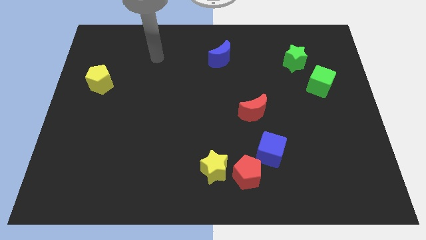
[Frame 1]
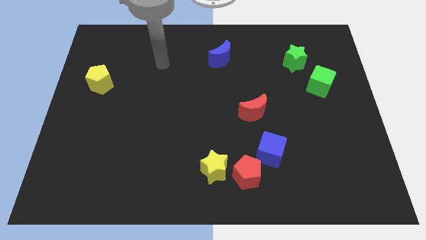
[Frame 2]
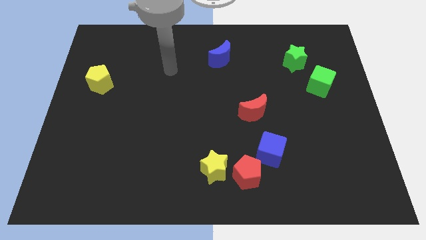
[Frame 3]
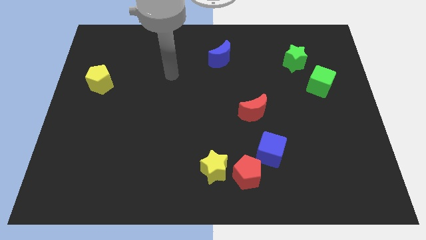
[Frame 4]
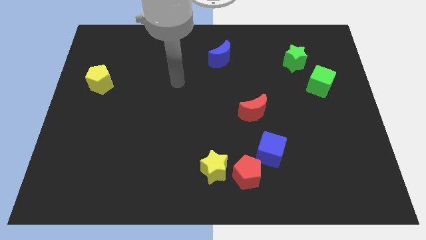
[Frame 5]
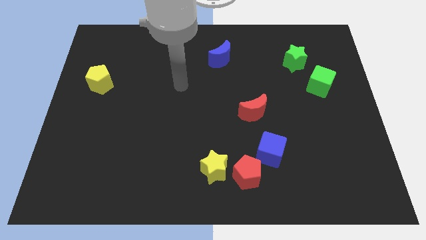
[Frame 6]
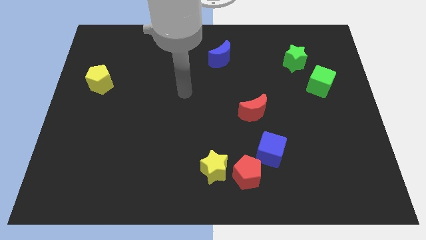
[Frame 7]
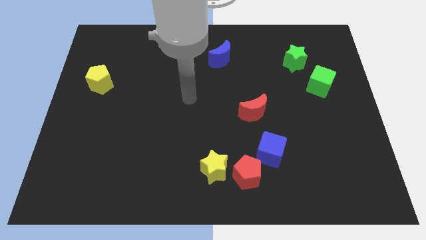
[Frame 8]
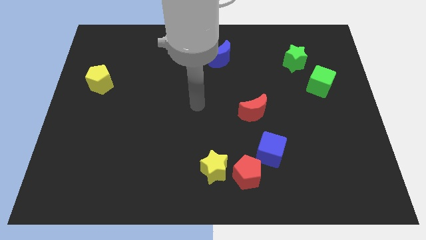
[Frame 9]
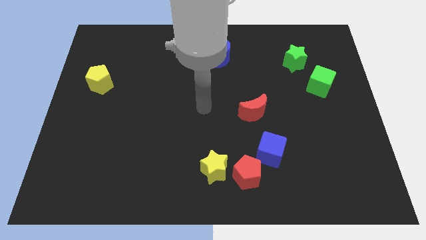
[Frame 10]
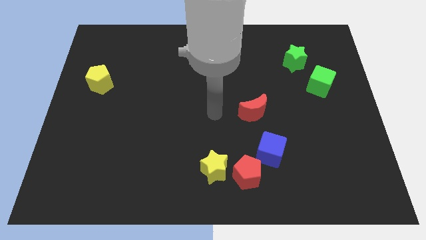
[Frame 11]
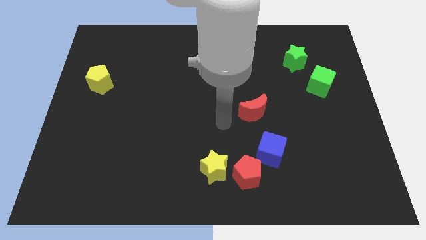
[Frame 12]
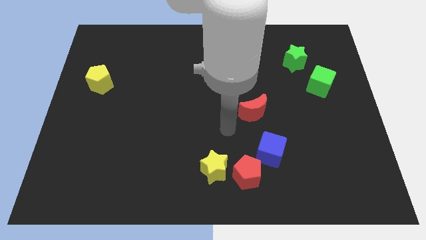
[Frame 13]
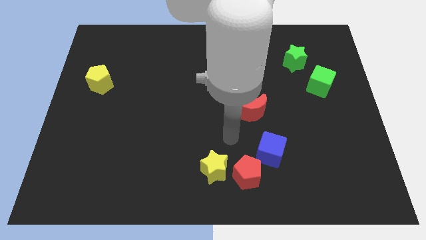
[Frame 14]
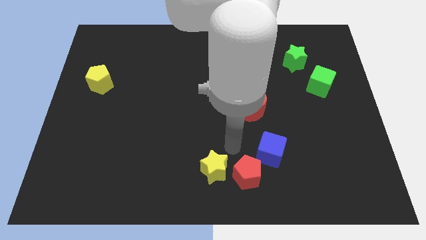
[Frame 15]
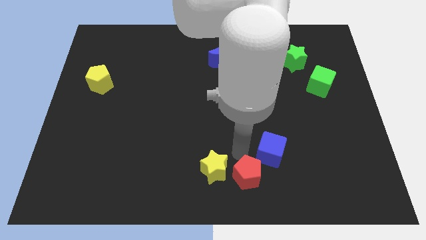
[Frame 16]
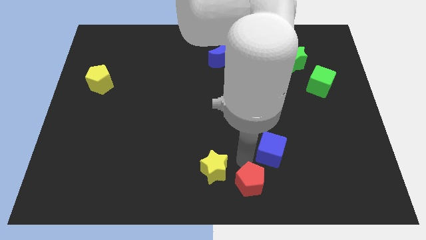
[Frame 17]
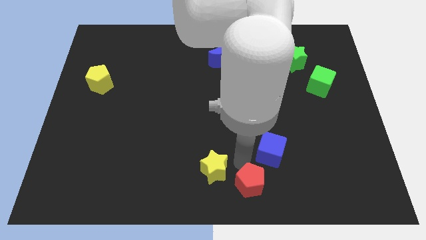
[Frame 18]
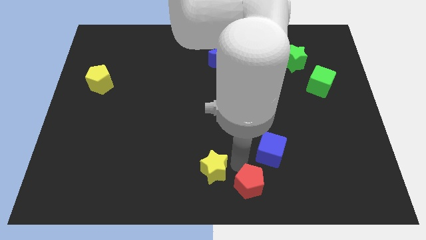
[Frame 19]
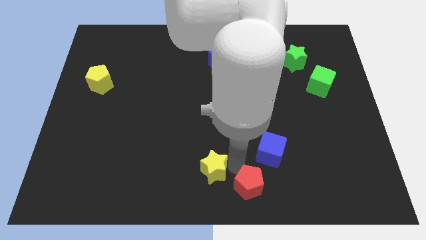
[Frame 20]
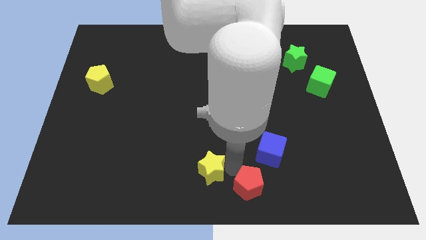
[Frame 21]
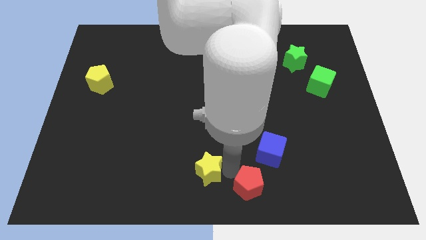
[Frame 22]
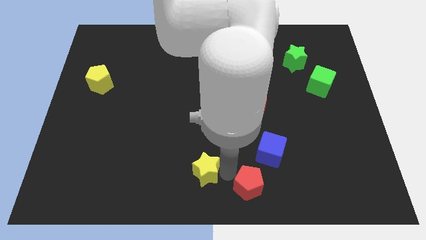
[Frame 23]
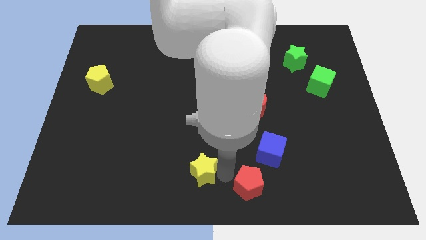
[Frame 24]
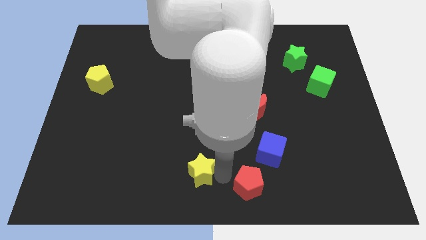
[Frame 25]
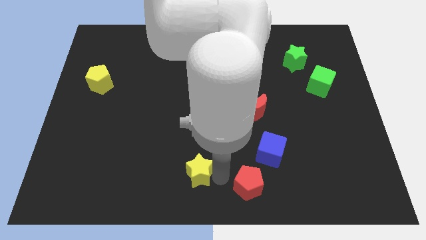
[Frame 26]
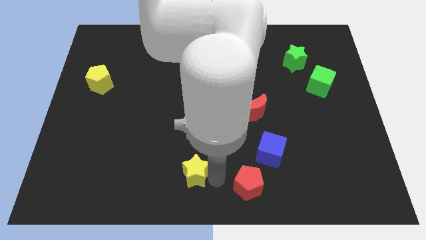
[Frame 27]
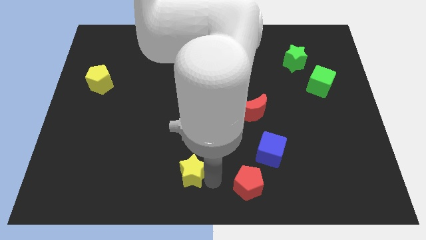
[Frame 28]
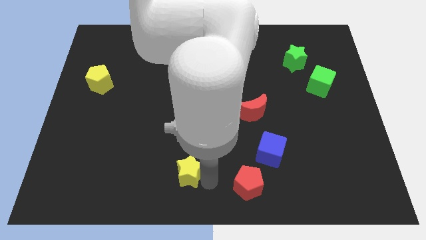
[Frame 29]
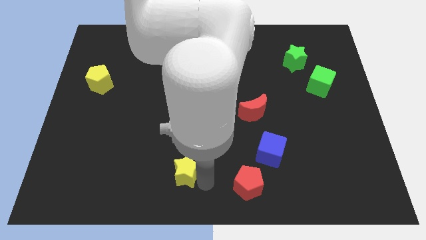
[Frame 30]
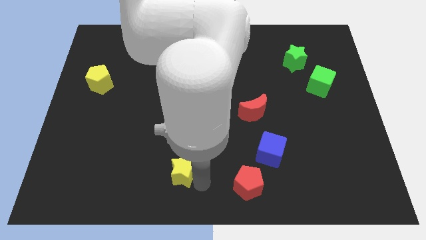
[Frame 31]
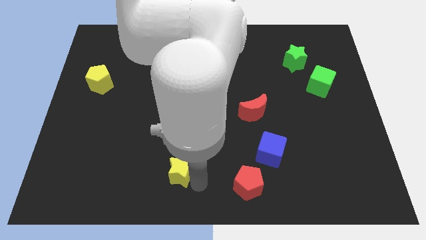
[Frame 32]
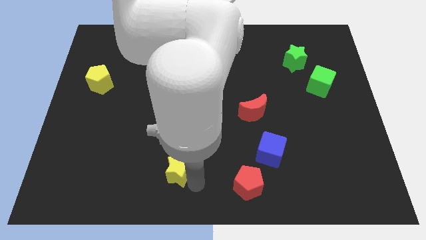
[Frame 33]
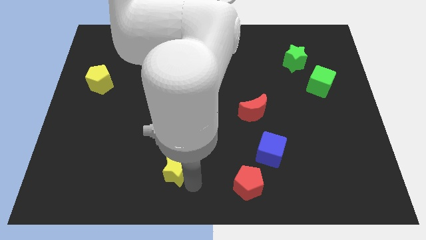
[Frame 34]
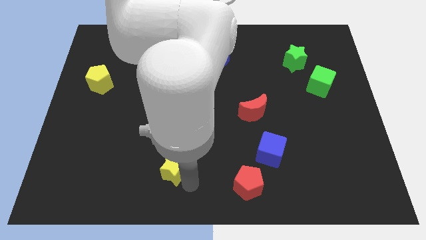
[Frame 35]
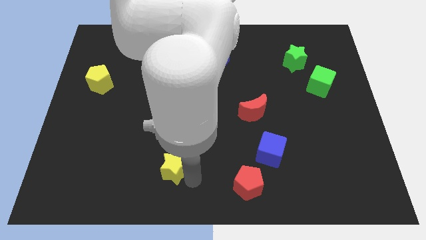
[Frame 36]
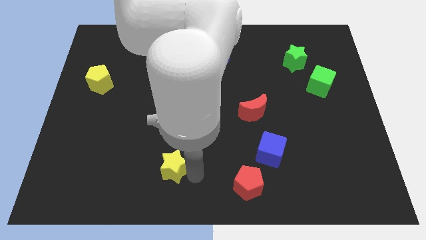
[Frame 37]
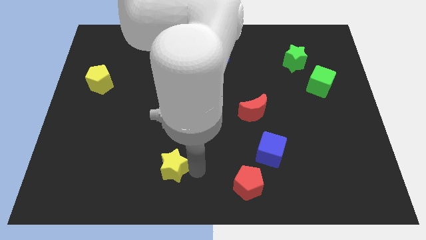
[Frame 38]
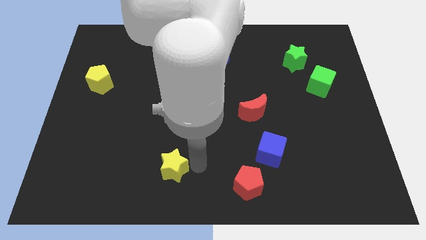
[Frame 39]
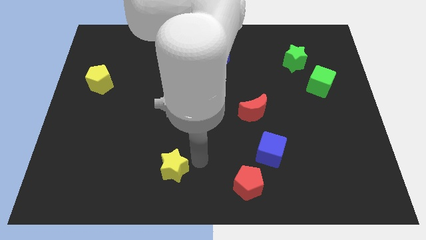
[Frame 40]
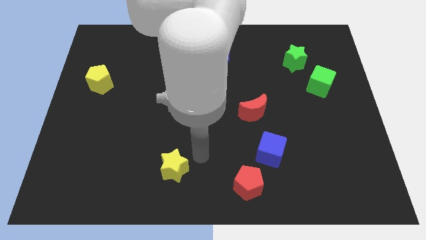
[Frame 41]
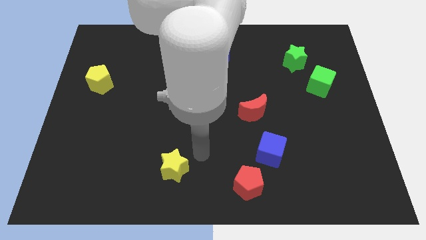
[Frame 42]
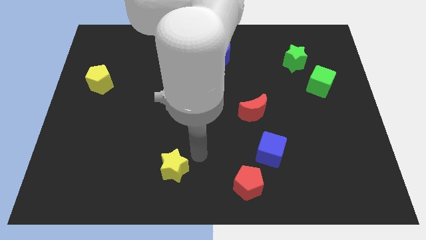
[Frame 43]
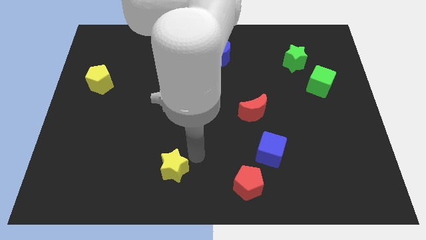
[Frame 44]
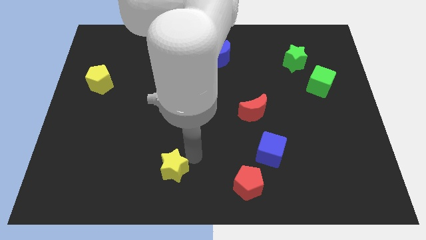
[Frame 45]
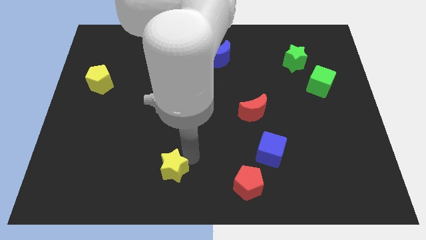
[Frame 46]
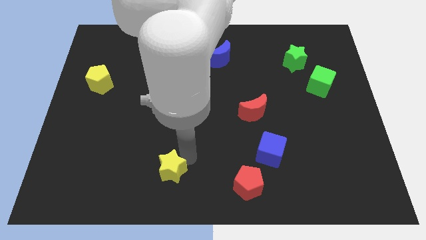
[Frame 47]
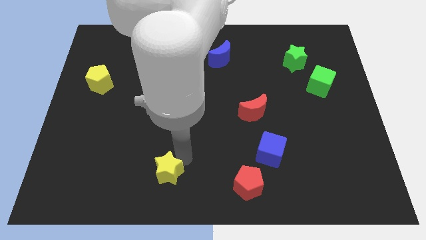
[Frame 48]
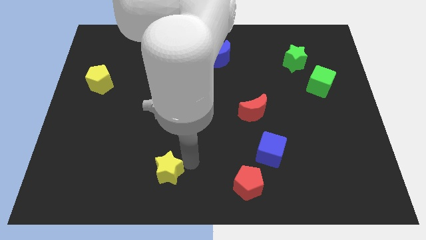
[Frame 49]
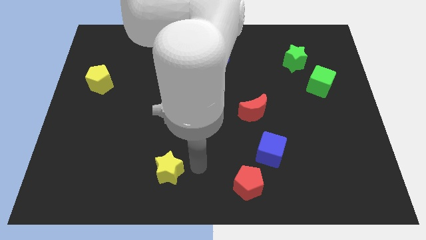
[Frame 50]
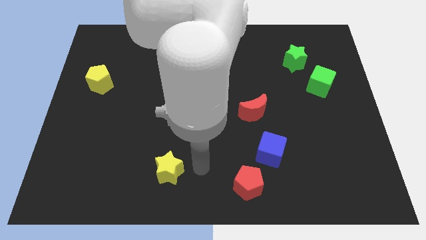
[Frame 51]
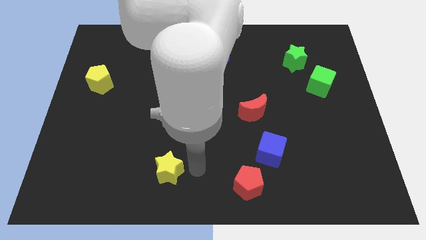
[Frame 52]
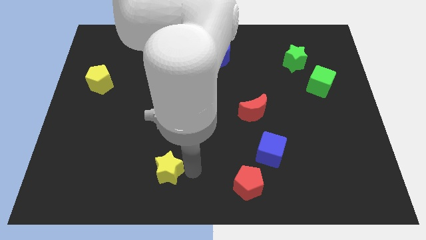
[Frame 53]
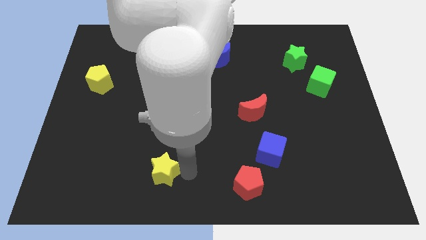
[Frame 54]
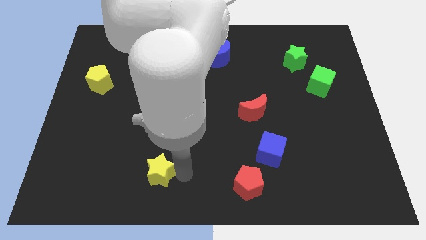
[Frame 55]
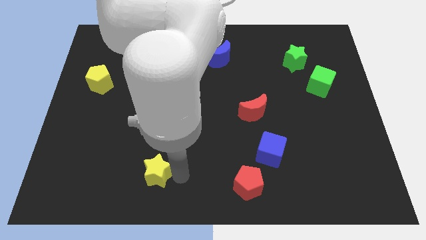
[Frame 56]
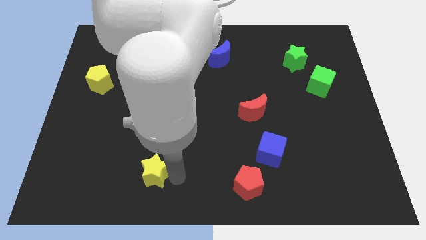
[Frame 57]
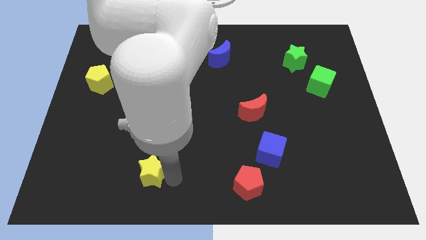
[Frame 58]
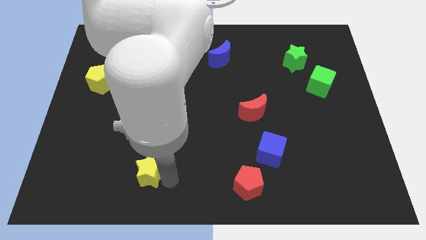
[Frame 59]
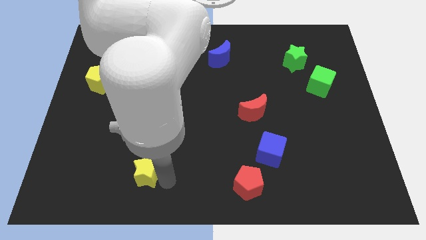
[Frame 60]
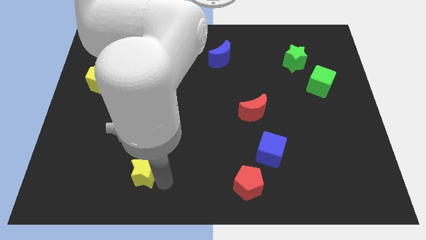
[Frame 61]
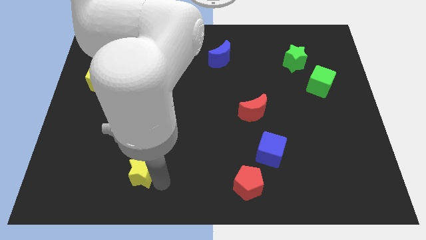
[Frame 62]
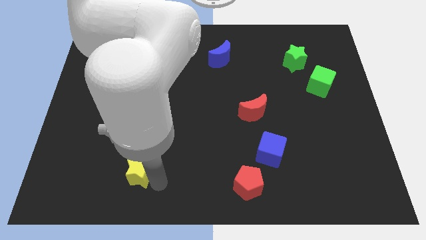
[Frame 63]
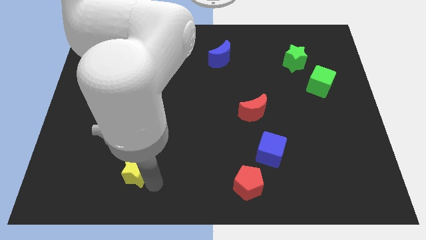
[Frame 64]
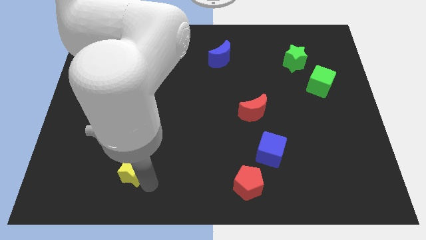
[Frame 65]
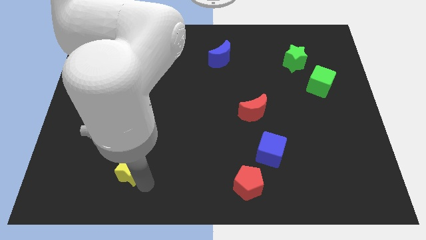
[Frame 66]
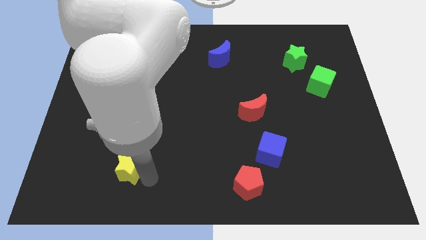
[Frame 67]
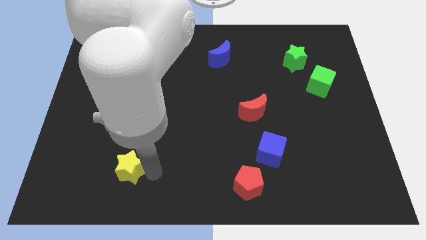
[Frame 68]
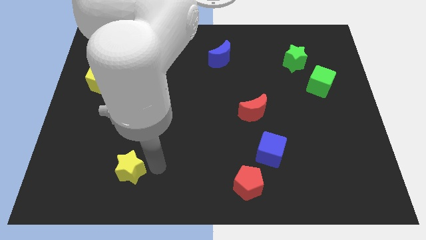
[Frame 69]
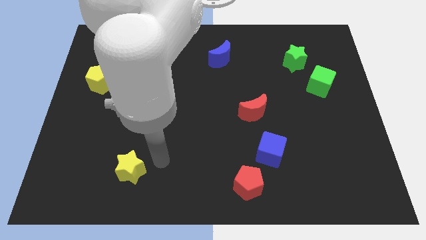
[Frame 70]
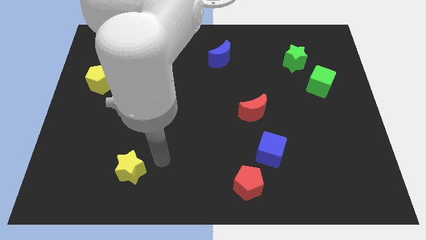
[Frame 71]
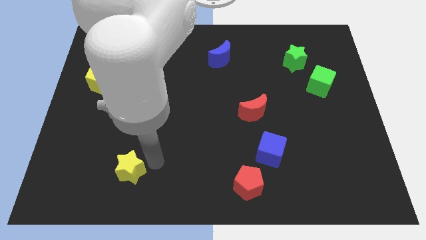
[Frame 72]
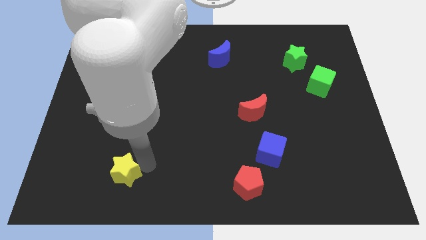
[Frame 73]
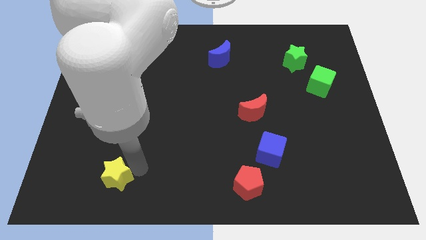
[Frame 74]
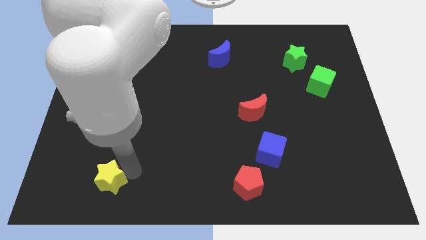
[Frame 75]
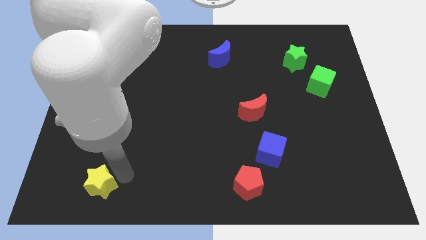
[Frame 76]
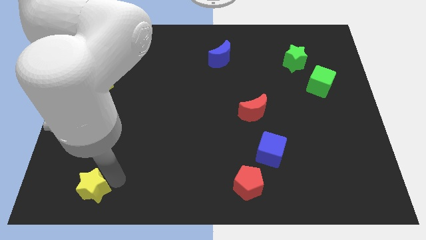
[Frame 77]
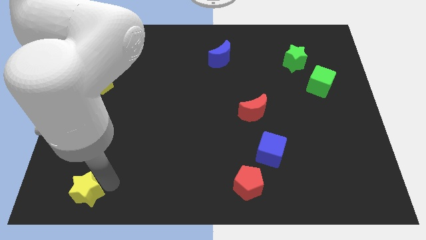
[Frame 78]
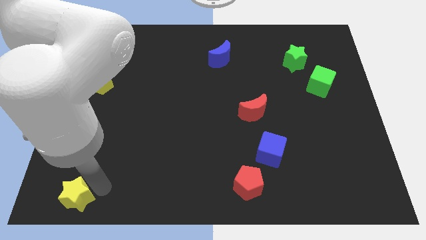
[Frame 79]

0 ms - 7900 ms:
move the yellow star to the bottom left of the board
